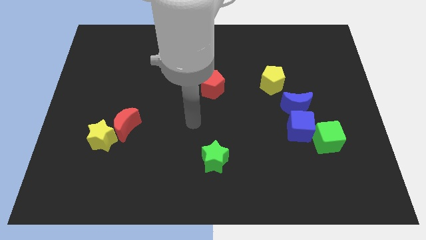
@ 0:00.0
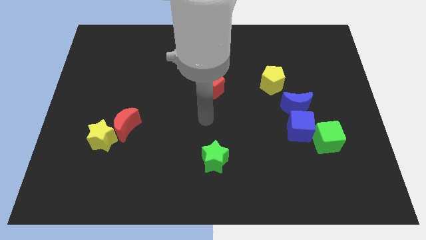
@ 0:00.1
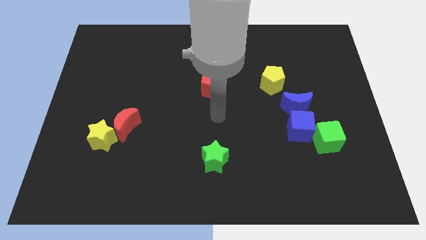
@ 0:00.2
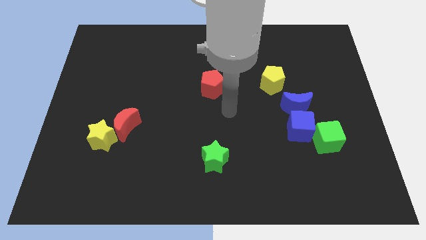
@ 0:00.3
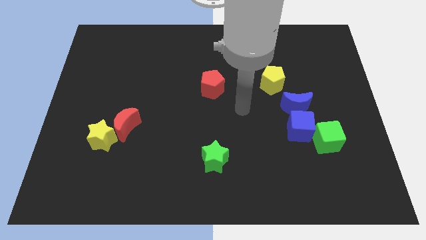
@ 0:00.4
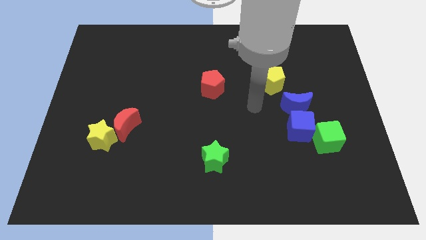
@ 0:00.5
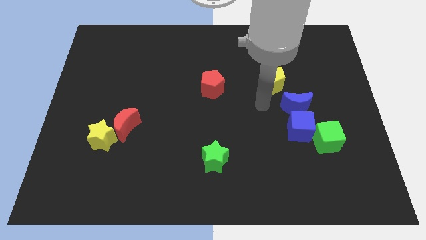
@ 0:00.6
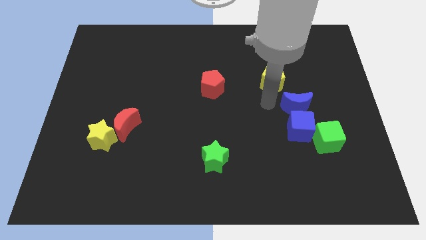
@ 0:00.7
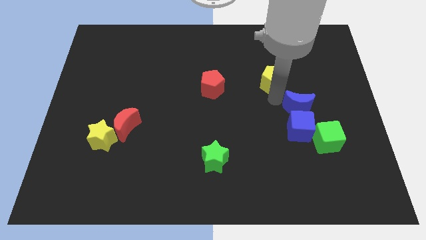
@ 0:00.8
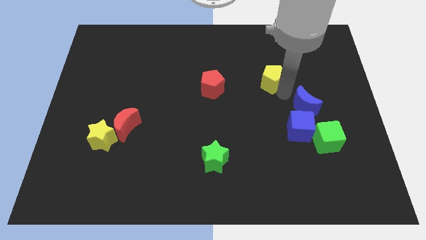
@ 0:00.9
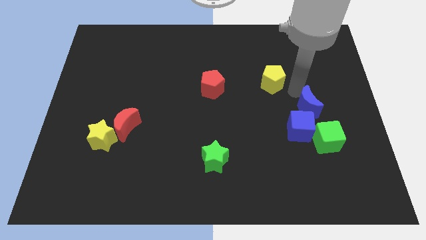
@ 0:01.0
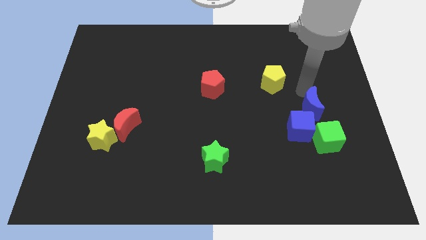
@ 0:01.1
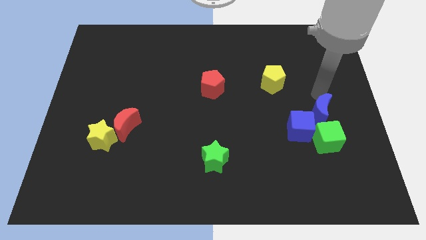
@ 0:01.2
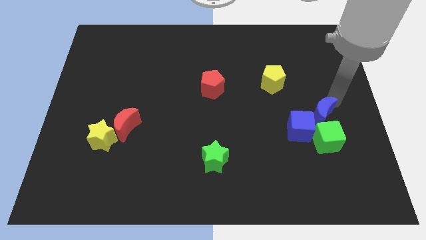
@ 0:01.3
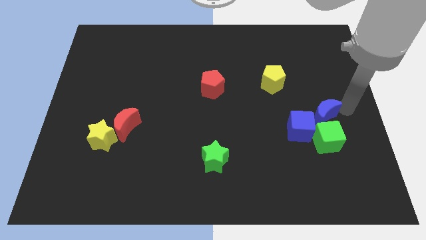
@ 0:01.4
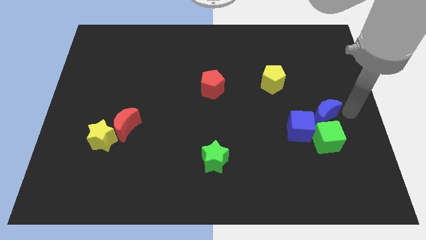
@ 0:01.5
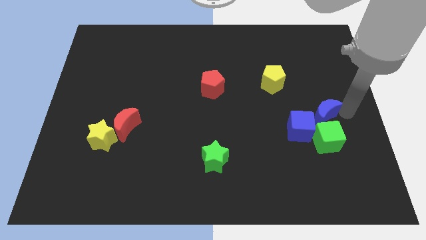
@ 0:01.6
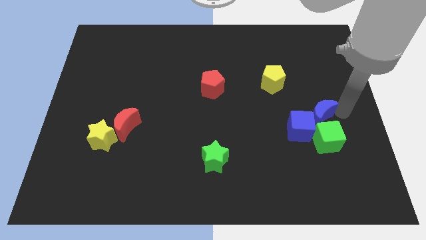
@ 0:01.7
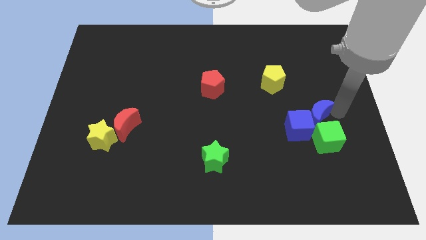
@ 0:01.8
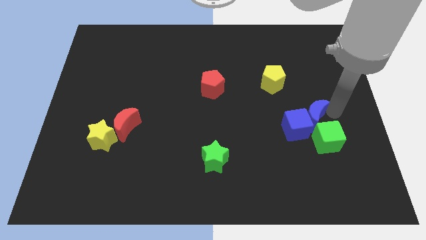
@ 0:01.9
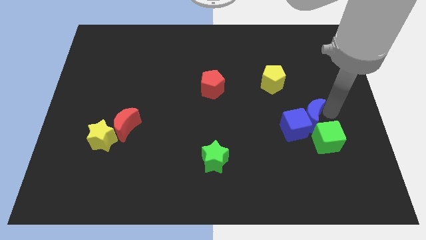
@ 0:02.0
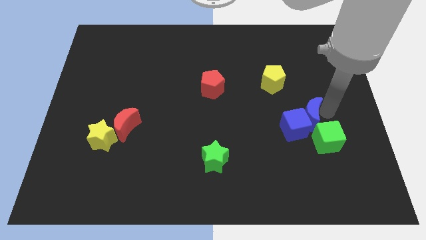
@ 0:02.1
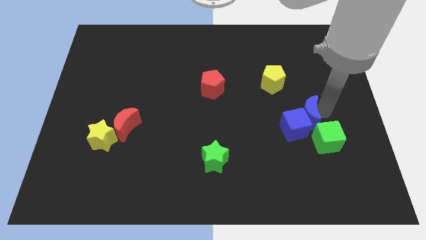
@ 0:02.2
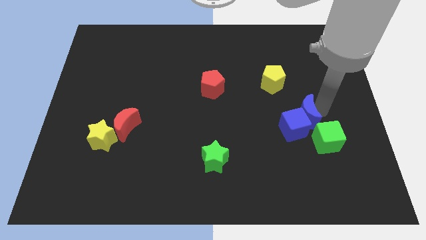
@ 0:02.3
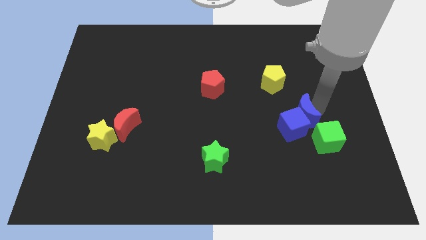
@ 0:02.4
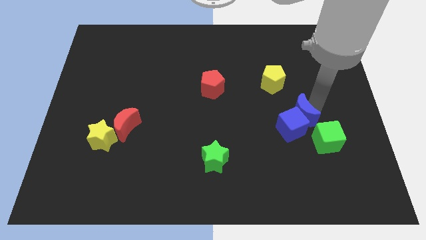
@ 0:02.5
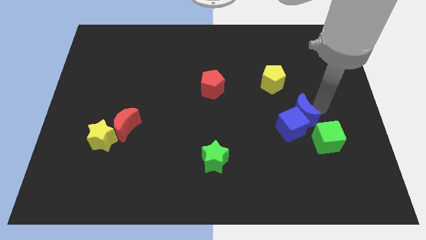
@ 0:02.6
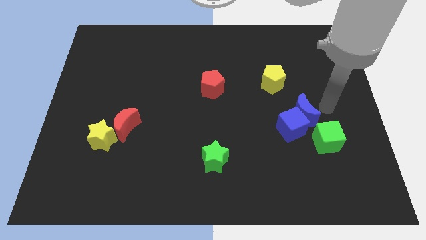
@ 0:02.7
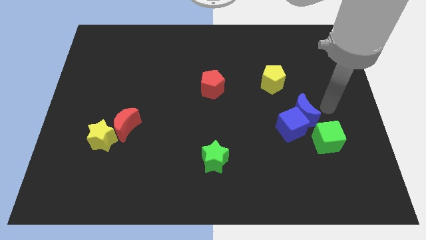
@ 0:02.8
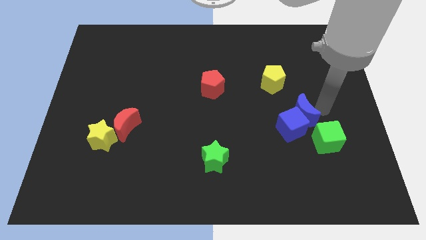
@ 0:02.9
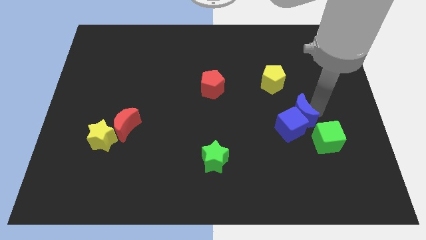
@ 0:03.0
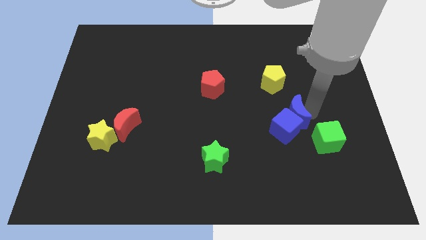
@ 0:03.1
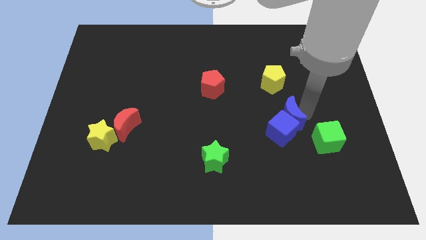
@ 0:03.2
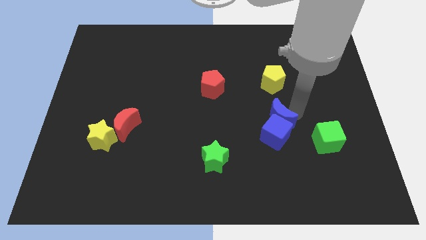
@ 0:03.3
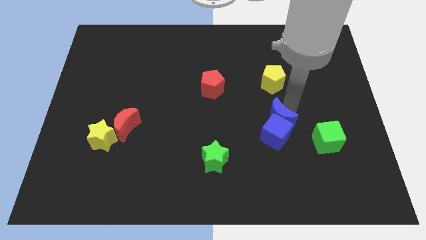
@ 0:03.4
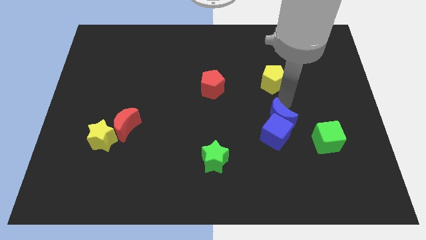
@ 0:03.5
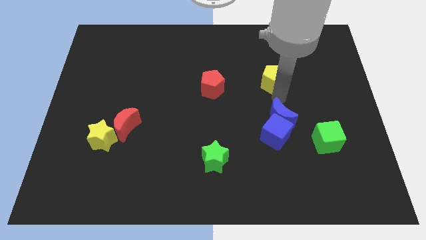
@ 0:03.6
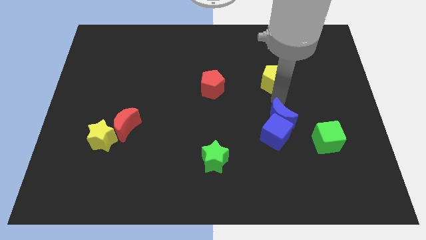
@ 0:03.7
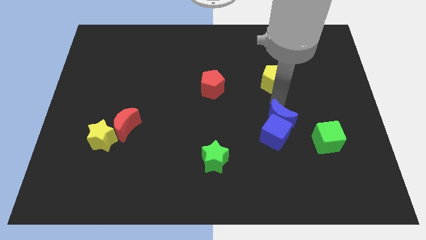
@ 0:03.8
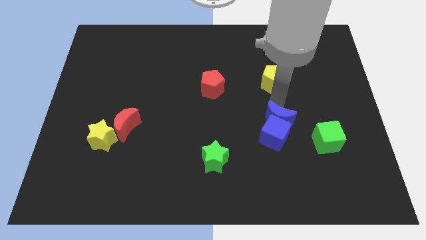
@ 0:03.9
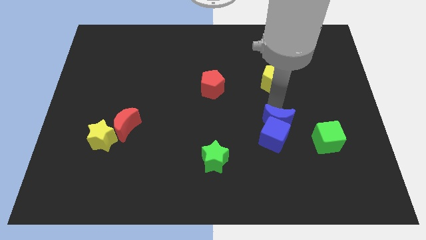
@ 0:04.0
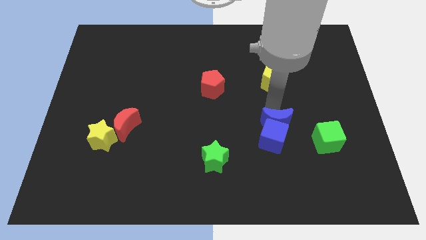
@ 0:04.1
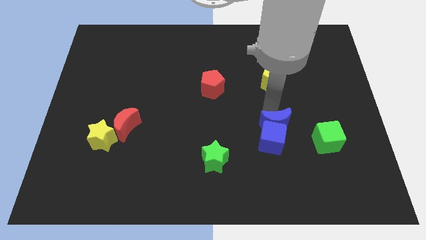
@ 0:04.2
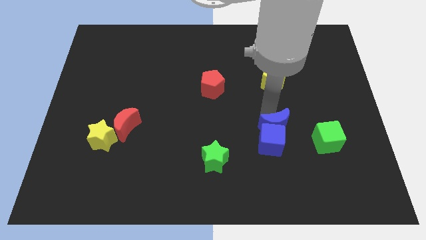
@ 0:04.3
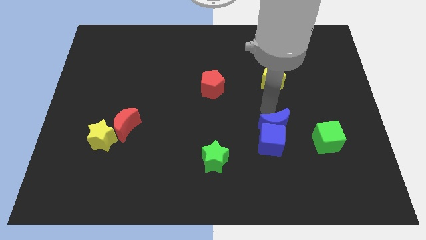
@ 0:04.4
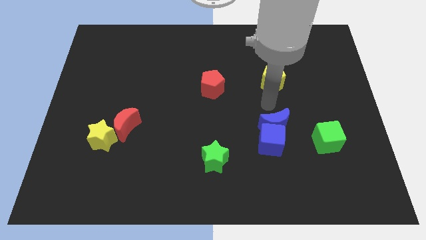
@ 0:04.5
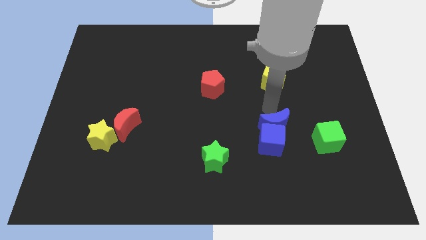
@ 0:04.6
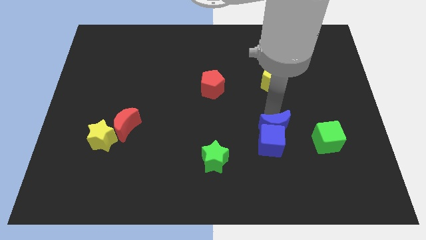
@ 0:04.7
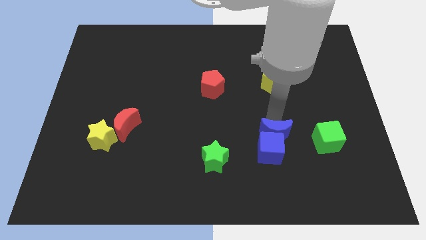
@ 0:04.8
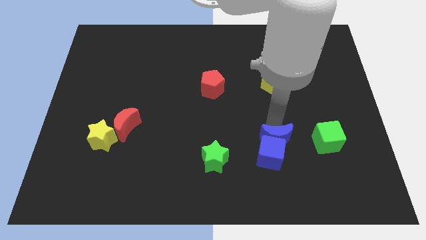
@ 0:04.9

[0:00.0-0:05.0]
slide the blue moon down somewhat

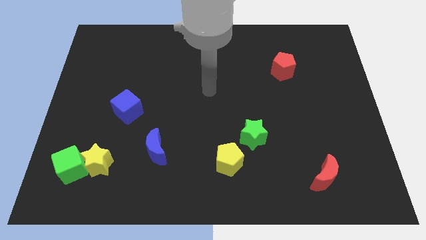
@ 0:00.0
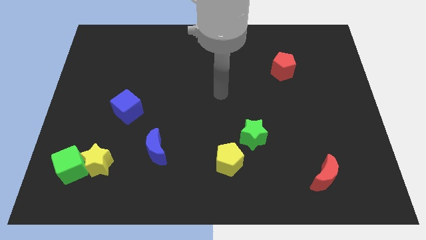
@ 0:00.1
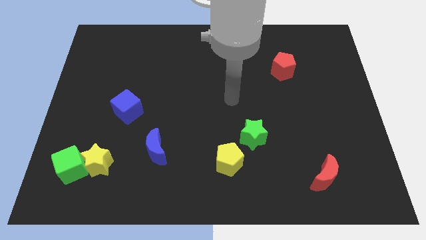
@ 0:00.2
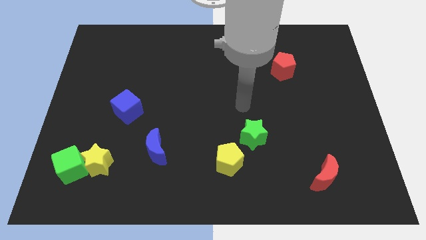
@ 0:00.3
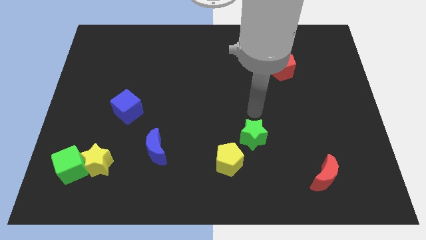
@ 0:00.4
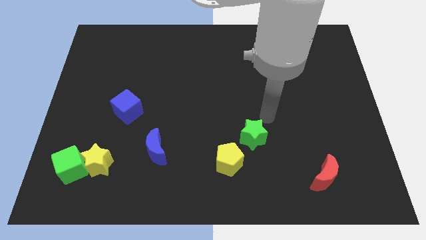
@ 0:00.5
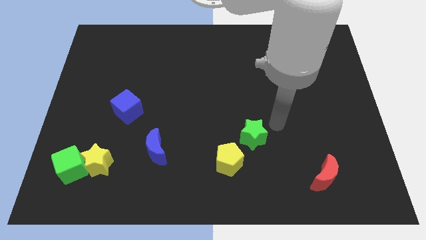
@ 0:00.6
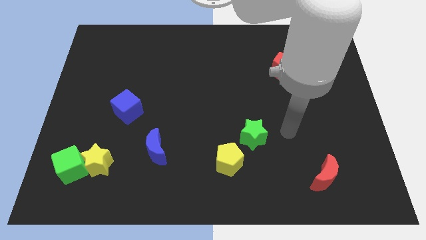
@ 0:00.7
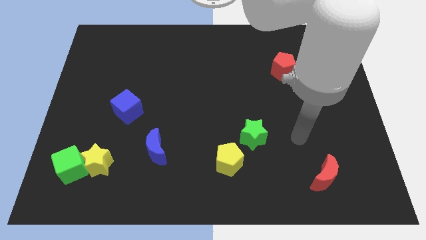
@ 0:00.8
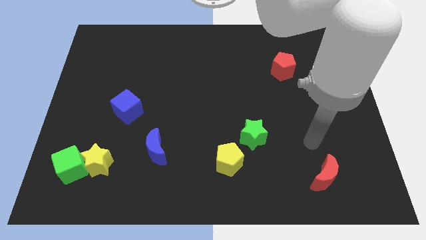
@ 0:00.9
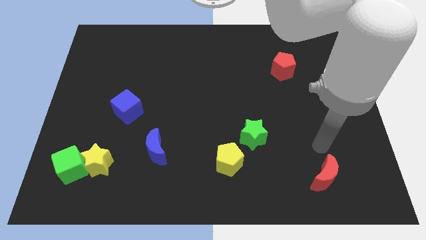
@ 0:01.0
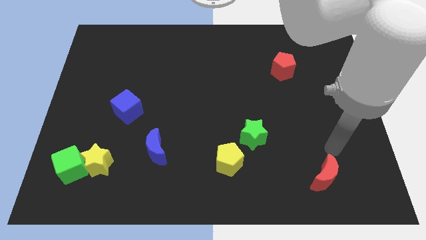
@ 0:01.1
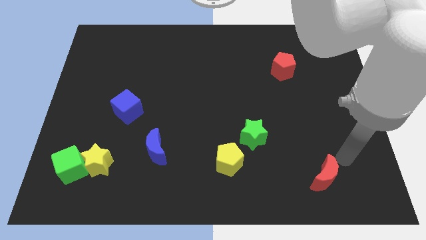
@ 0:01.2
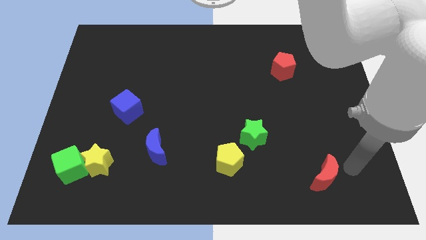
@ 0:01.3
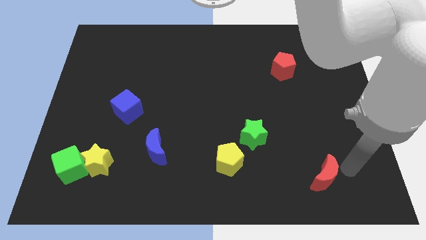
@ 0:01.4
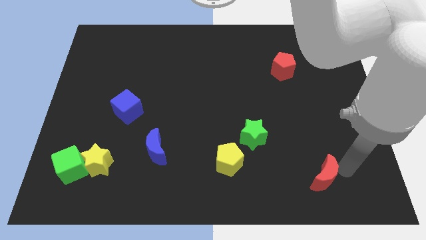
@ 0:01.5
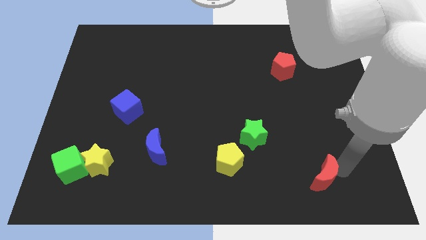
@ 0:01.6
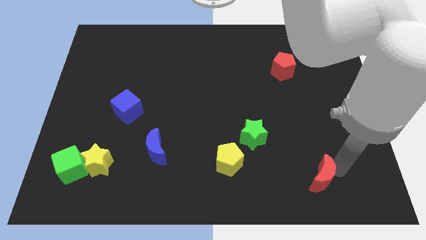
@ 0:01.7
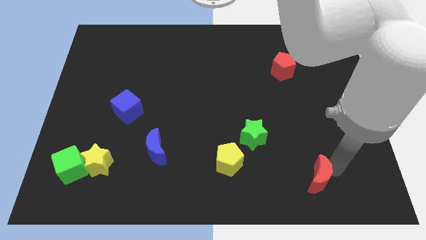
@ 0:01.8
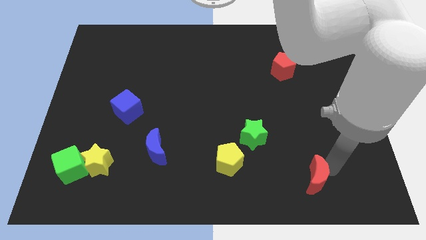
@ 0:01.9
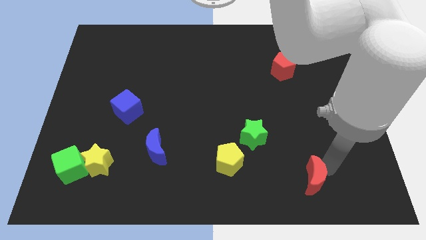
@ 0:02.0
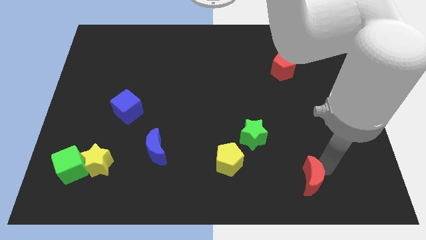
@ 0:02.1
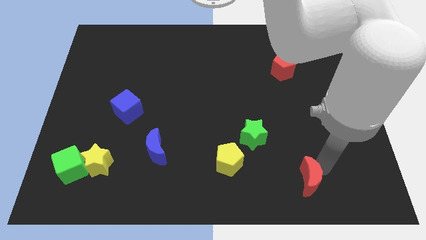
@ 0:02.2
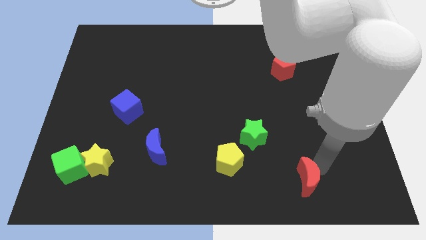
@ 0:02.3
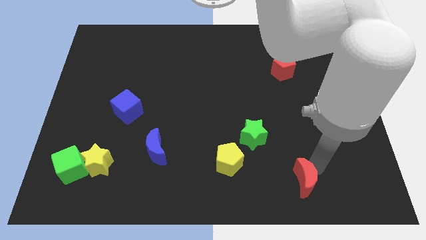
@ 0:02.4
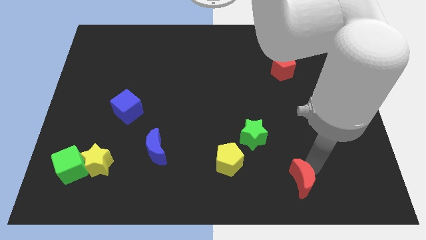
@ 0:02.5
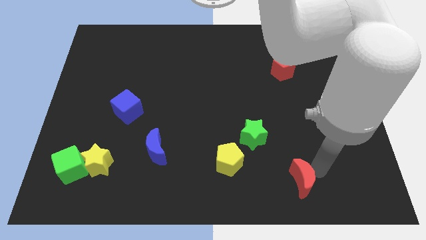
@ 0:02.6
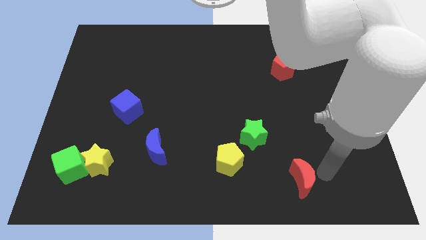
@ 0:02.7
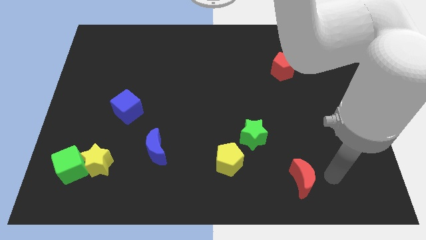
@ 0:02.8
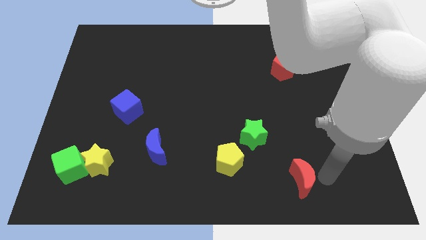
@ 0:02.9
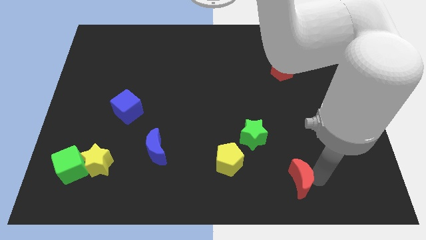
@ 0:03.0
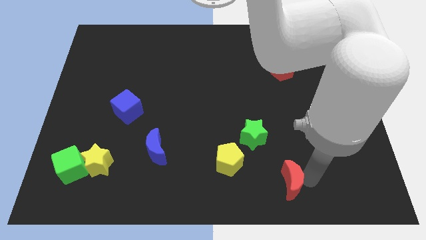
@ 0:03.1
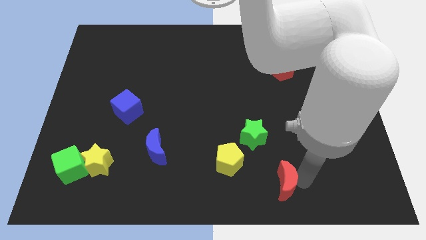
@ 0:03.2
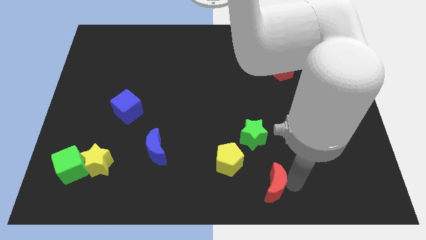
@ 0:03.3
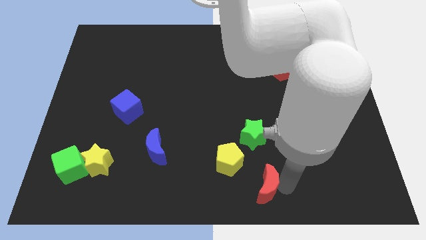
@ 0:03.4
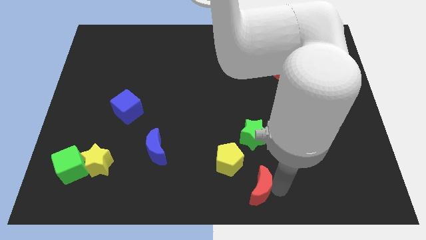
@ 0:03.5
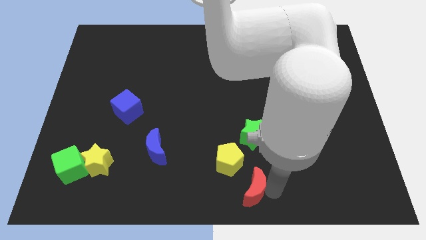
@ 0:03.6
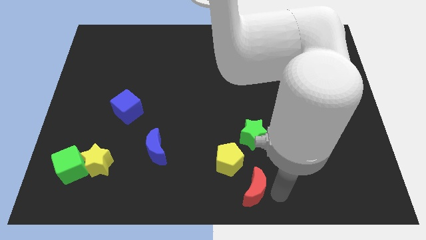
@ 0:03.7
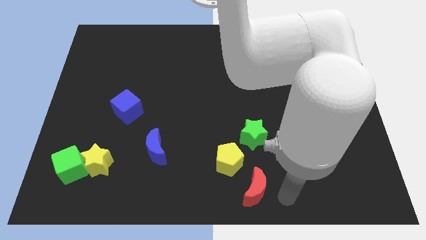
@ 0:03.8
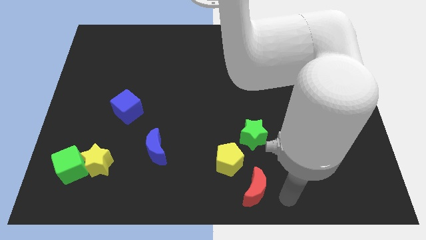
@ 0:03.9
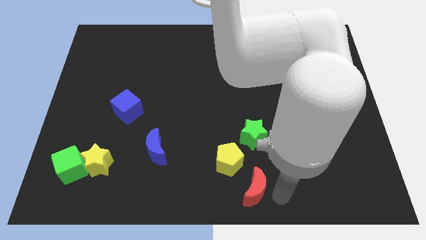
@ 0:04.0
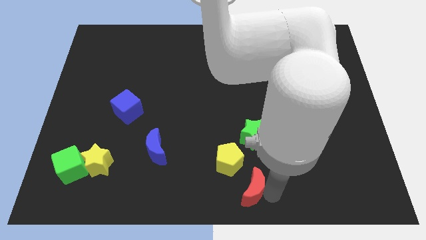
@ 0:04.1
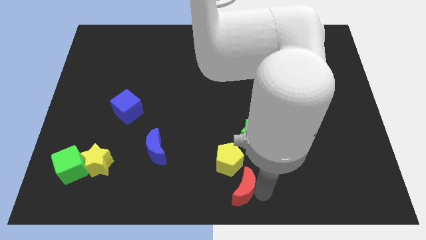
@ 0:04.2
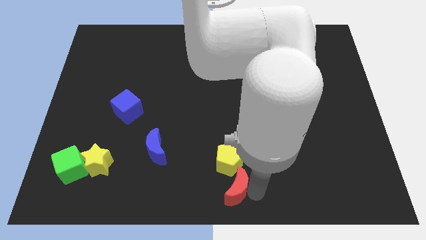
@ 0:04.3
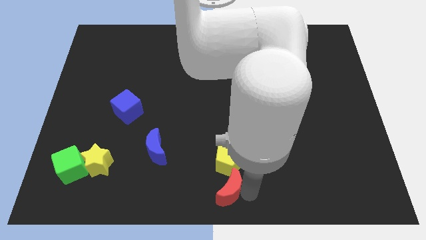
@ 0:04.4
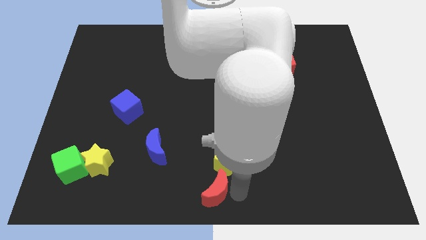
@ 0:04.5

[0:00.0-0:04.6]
move the red moon to the left
